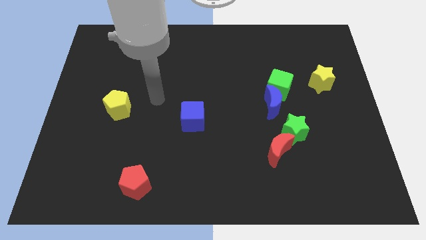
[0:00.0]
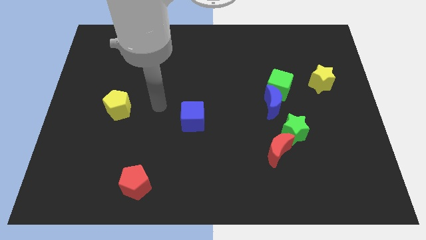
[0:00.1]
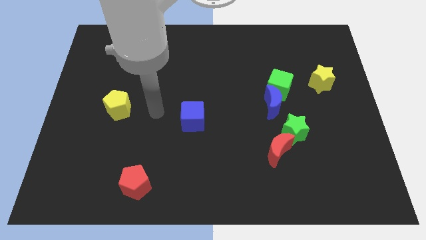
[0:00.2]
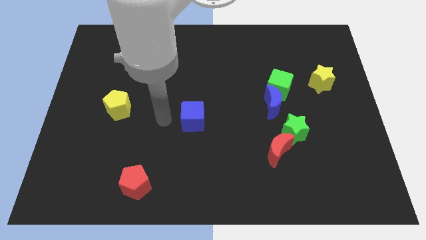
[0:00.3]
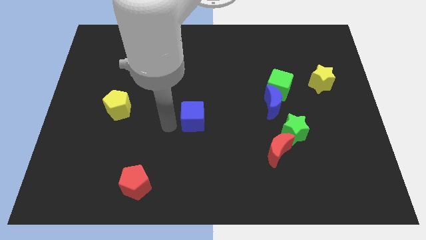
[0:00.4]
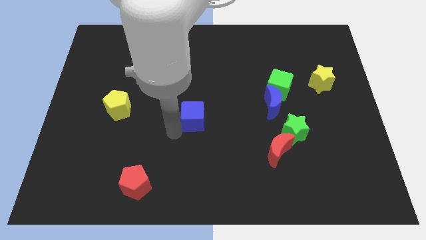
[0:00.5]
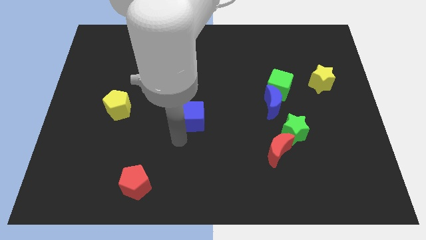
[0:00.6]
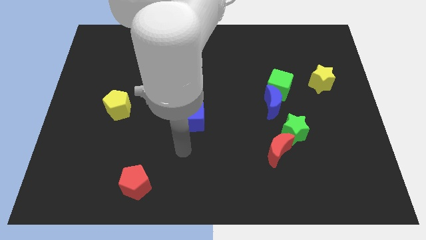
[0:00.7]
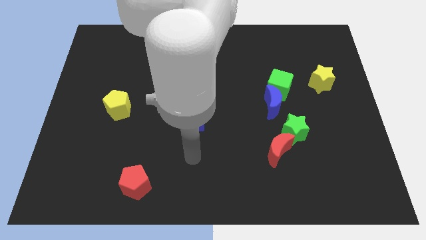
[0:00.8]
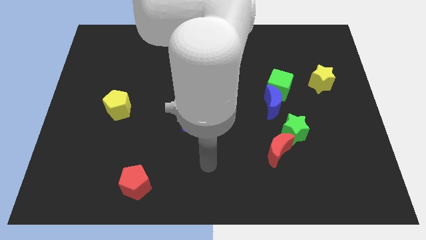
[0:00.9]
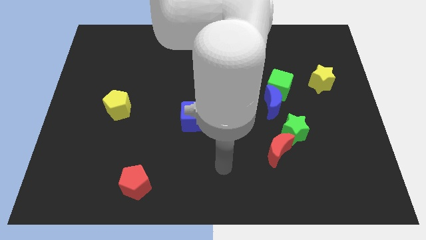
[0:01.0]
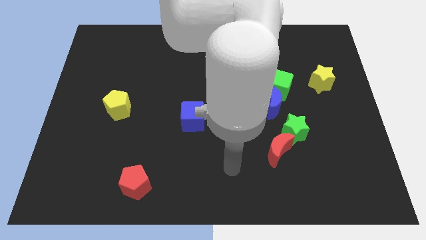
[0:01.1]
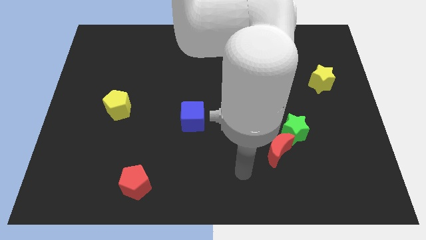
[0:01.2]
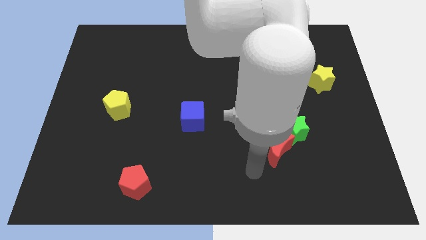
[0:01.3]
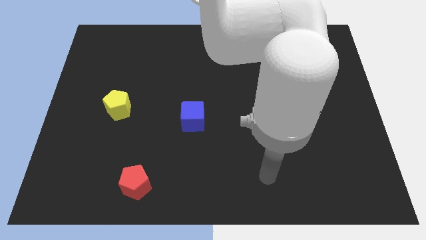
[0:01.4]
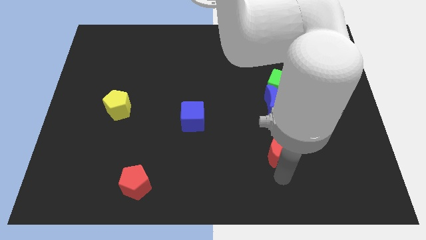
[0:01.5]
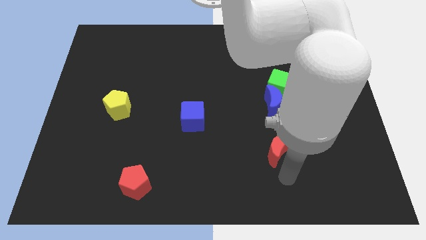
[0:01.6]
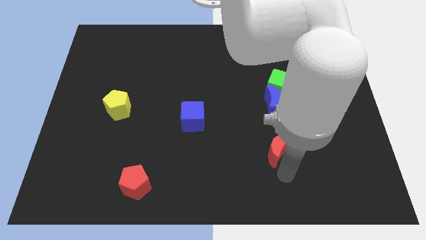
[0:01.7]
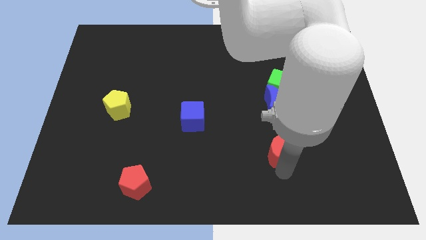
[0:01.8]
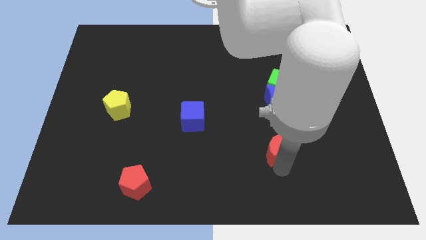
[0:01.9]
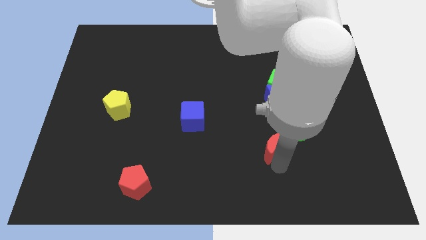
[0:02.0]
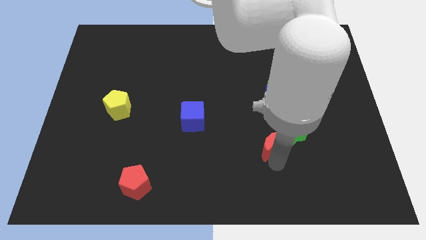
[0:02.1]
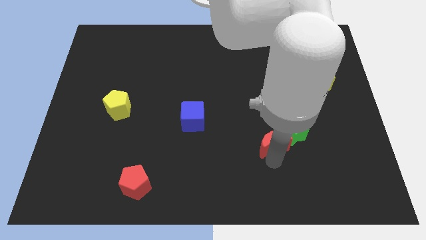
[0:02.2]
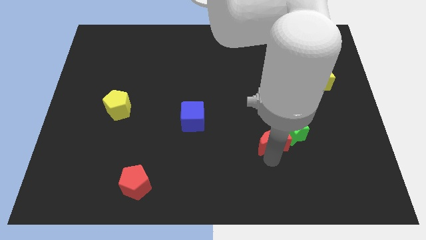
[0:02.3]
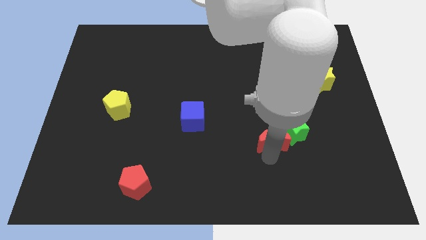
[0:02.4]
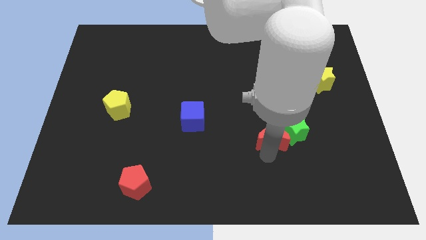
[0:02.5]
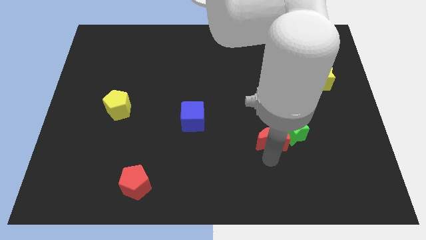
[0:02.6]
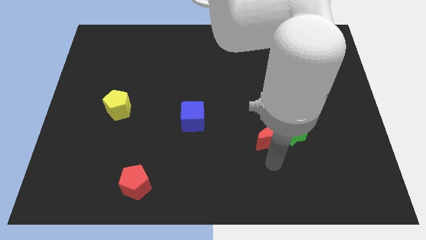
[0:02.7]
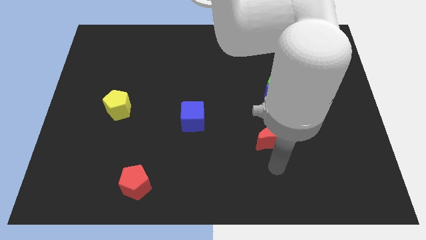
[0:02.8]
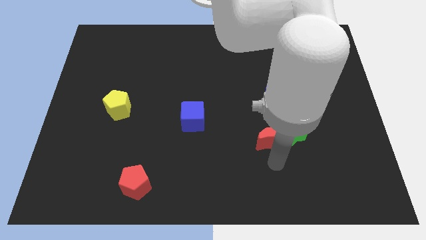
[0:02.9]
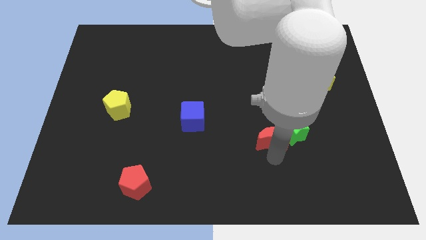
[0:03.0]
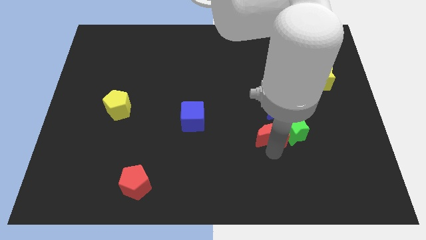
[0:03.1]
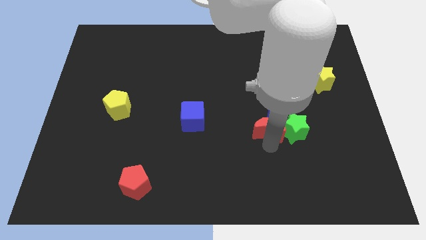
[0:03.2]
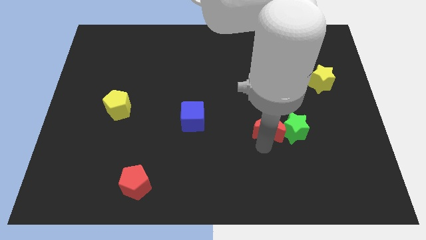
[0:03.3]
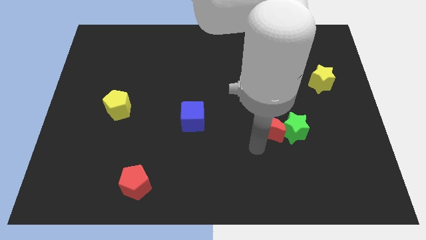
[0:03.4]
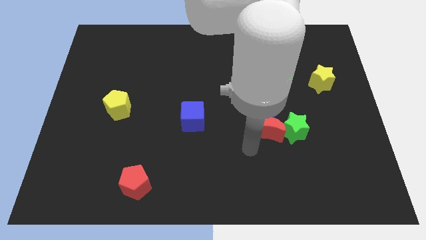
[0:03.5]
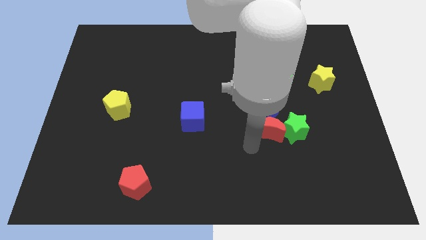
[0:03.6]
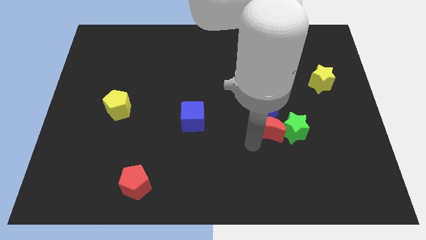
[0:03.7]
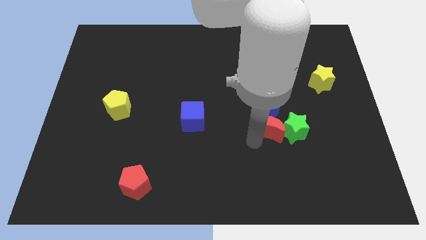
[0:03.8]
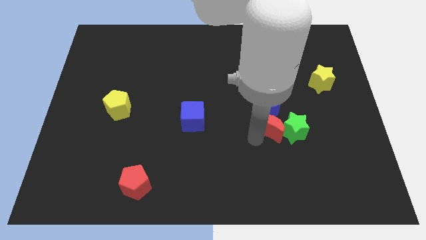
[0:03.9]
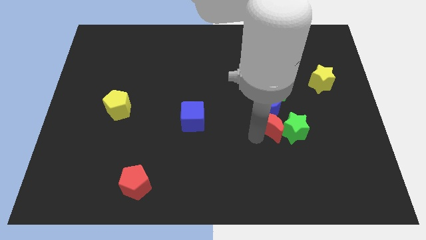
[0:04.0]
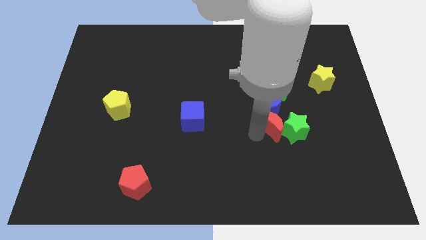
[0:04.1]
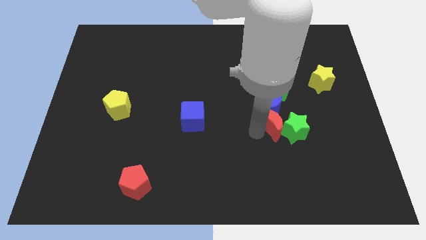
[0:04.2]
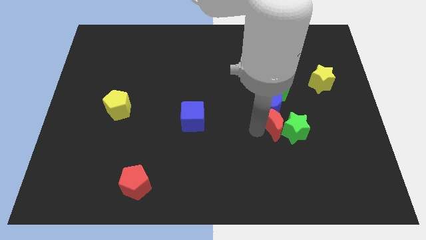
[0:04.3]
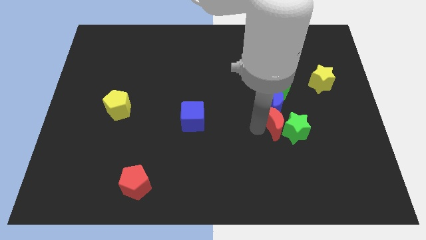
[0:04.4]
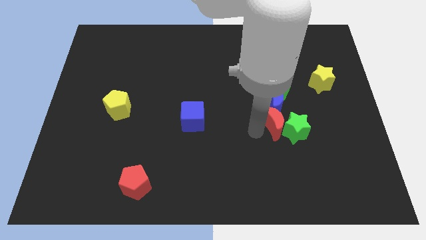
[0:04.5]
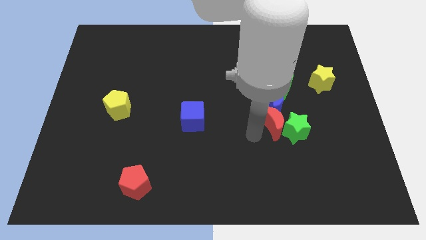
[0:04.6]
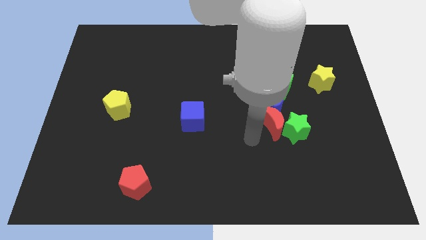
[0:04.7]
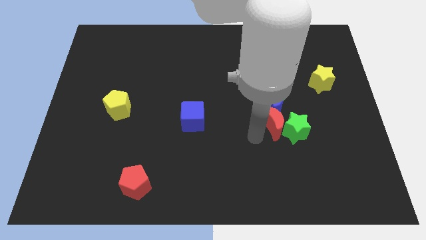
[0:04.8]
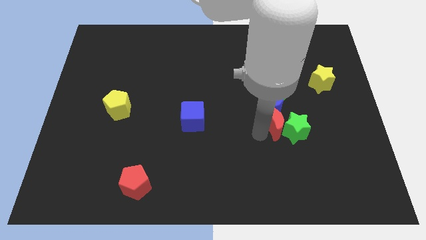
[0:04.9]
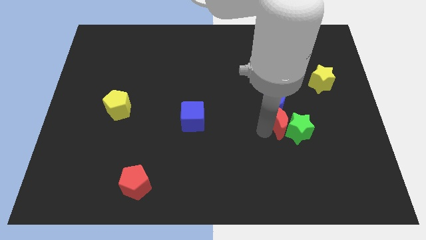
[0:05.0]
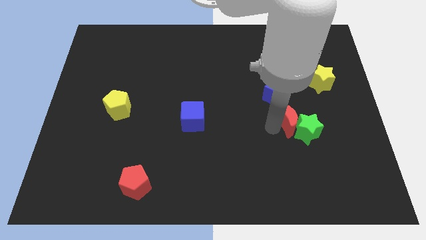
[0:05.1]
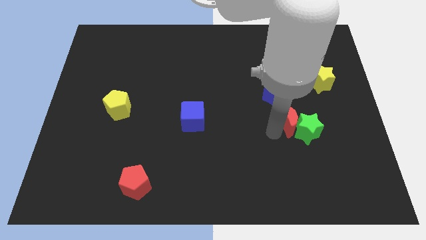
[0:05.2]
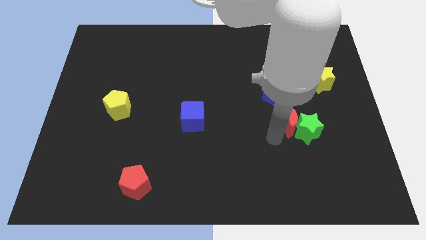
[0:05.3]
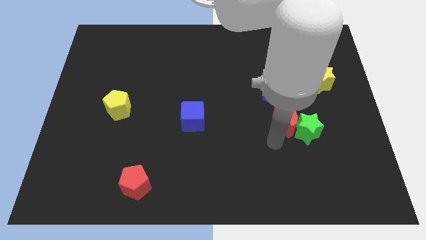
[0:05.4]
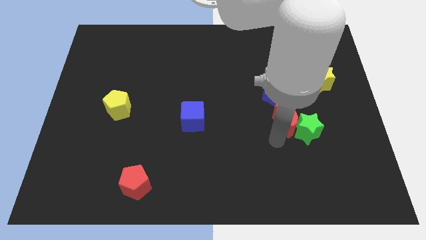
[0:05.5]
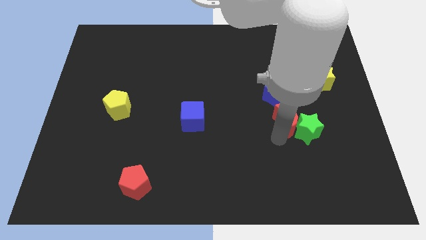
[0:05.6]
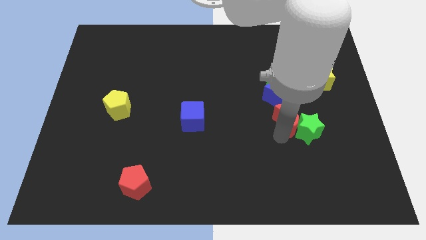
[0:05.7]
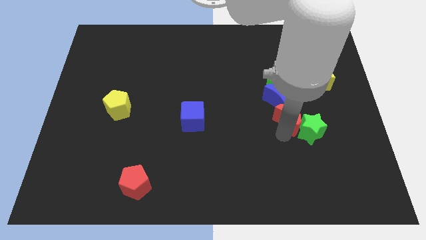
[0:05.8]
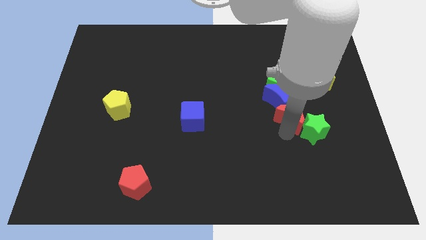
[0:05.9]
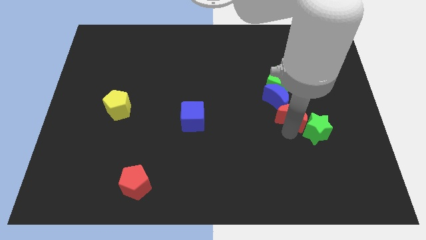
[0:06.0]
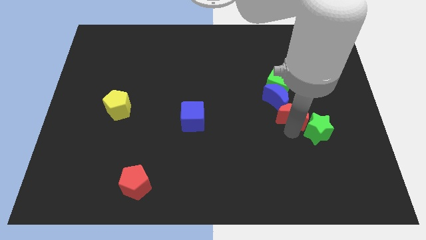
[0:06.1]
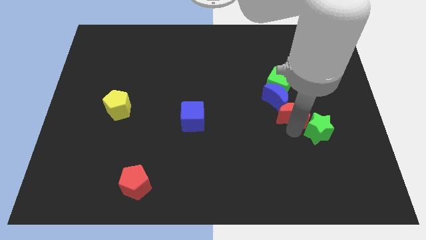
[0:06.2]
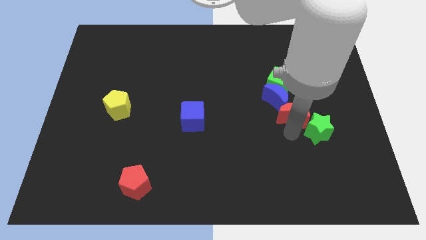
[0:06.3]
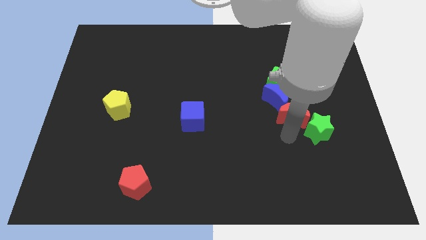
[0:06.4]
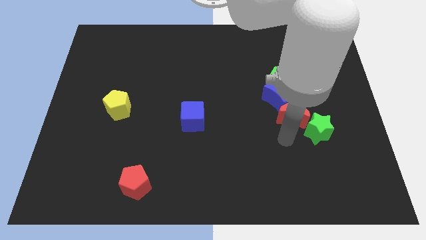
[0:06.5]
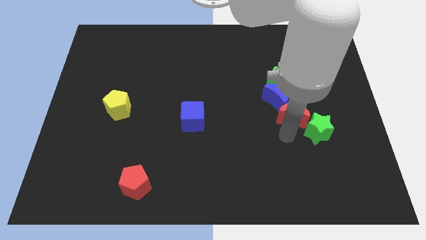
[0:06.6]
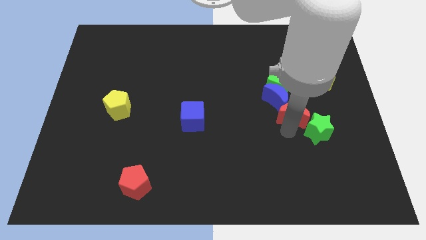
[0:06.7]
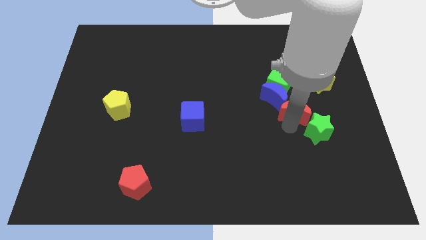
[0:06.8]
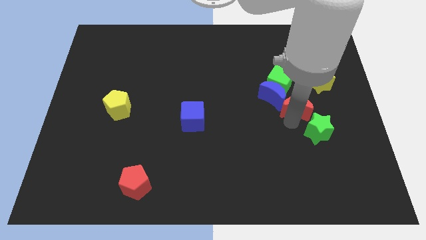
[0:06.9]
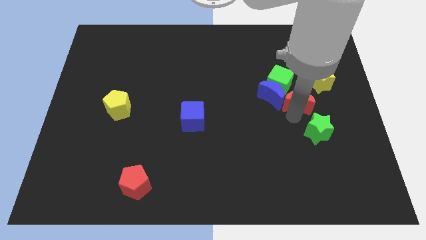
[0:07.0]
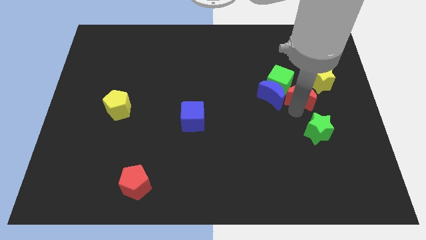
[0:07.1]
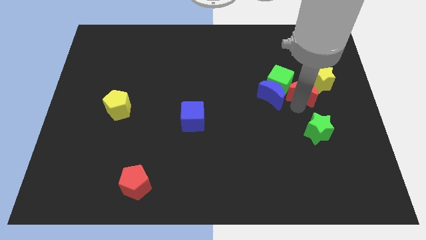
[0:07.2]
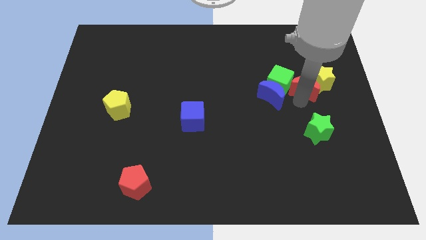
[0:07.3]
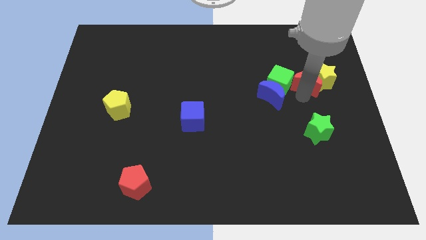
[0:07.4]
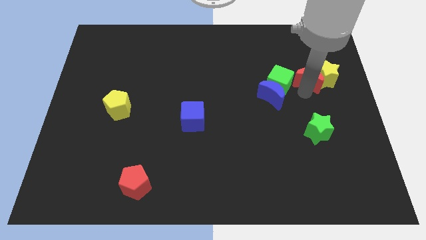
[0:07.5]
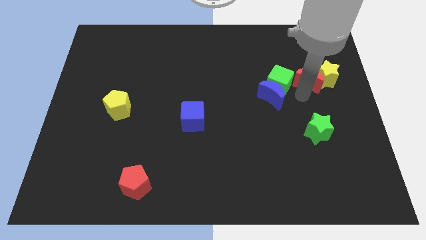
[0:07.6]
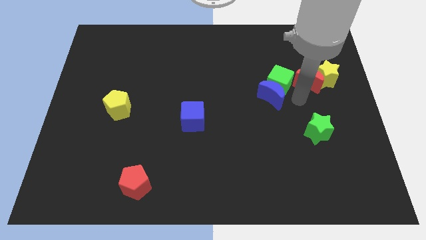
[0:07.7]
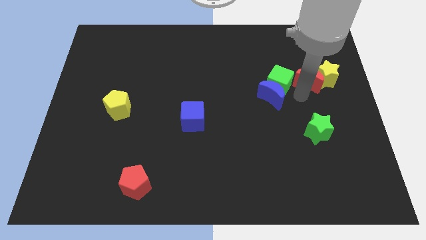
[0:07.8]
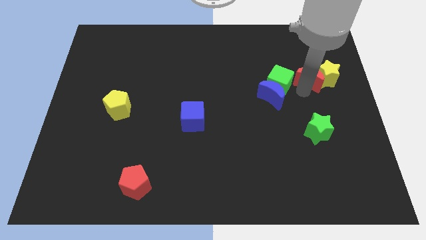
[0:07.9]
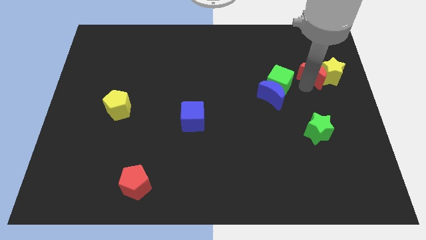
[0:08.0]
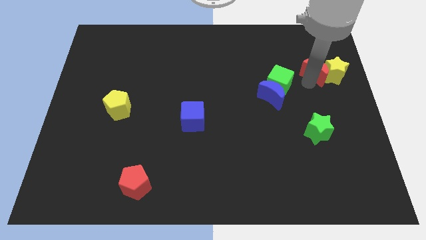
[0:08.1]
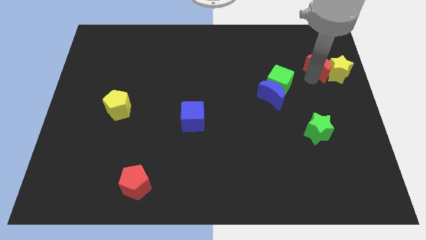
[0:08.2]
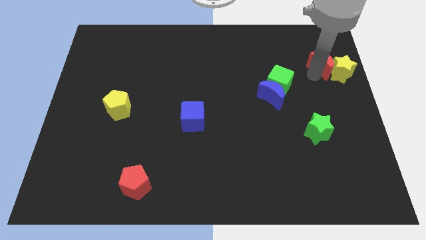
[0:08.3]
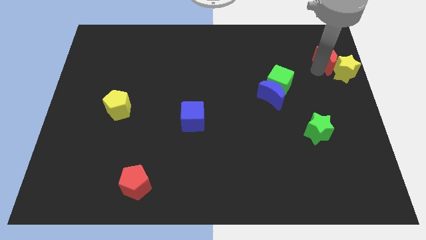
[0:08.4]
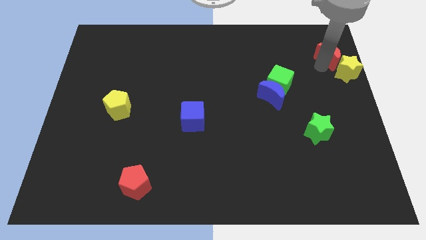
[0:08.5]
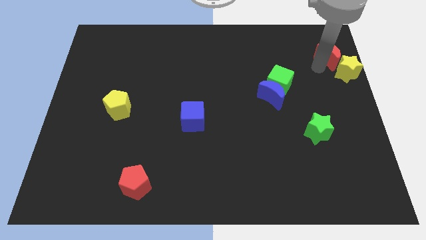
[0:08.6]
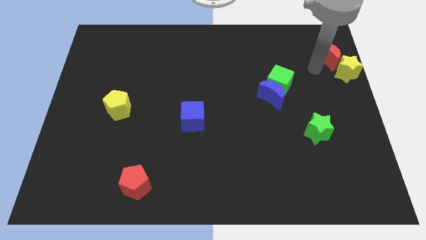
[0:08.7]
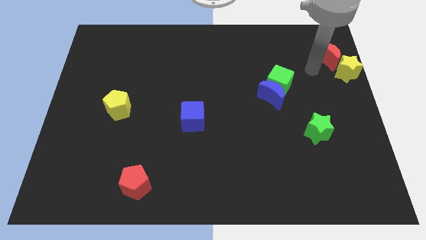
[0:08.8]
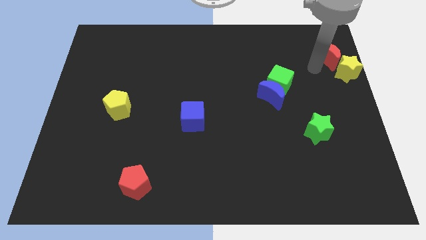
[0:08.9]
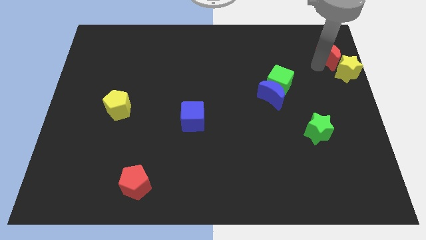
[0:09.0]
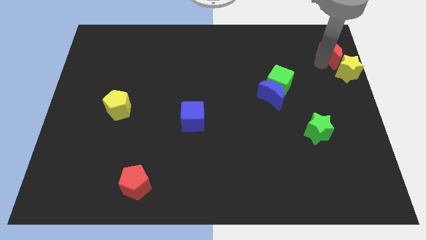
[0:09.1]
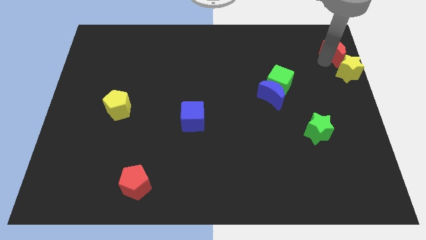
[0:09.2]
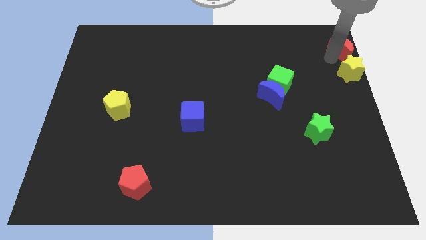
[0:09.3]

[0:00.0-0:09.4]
move the red moon to the top right corner
